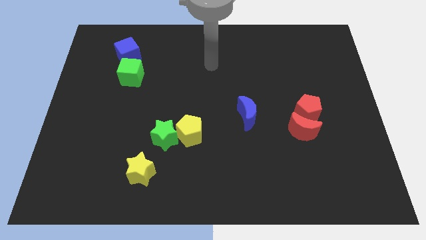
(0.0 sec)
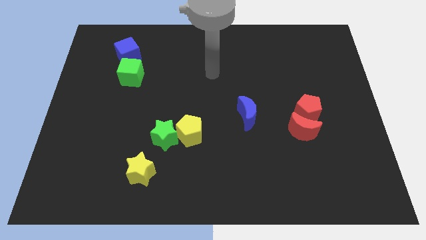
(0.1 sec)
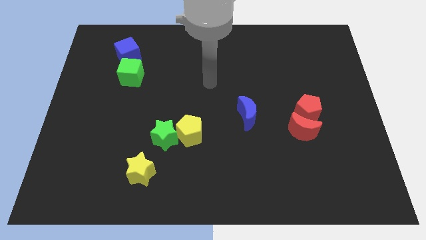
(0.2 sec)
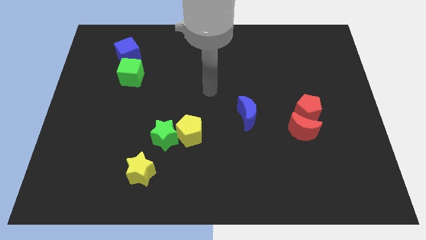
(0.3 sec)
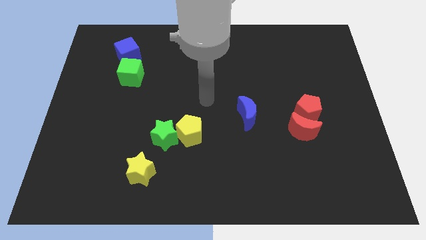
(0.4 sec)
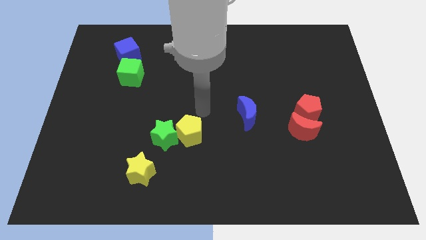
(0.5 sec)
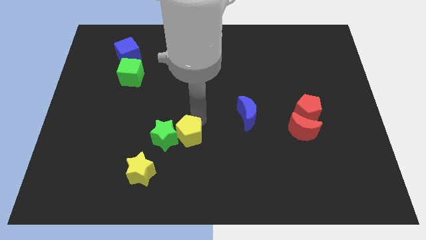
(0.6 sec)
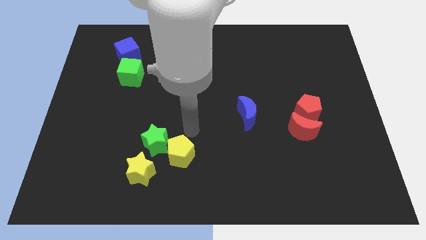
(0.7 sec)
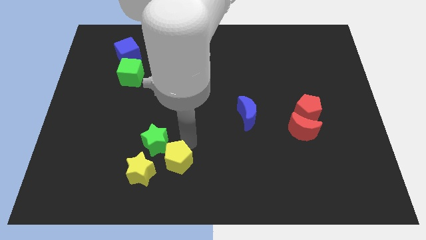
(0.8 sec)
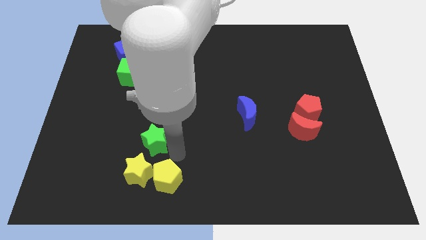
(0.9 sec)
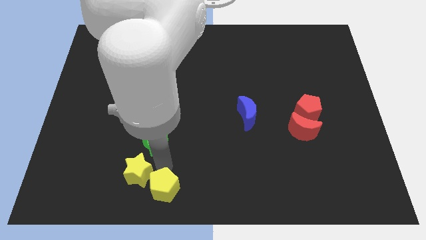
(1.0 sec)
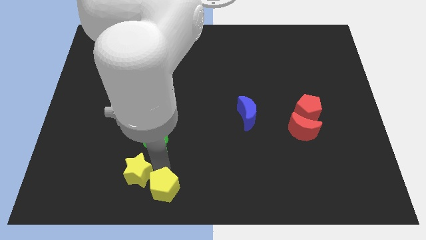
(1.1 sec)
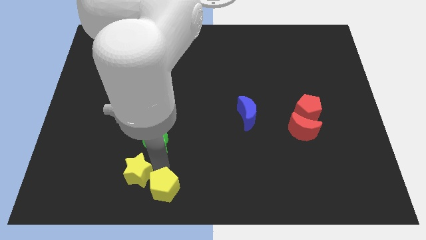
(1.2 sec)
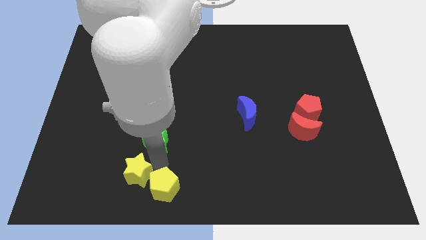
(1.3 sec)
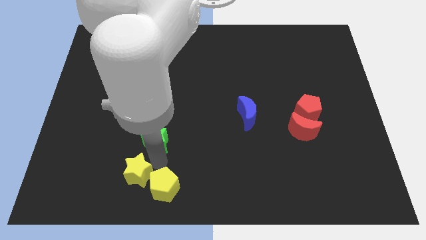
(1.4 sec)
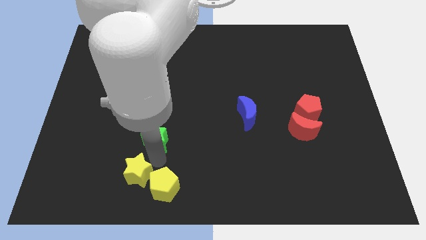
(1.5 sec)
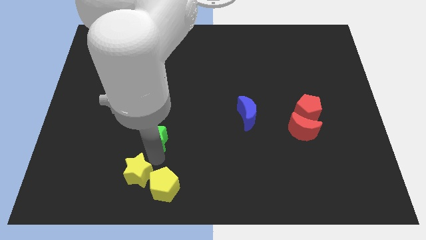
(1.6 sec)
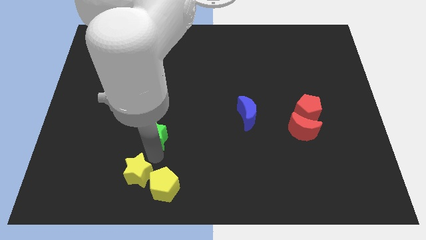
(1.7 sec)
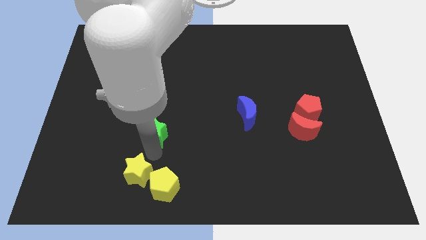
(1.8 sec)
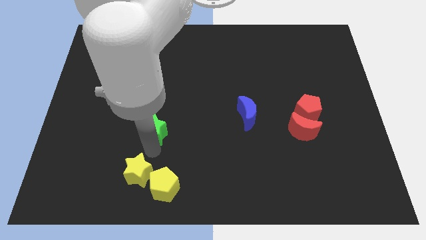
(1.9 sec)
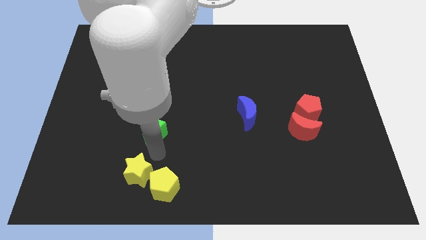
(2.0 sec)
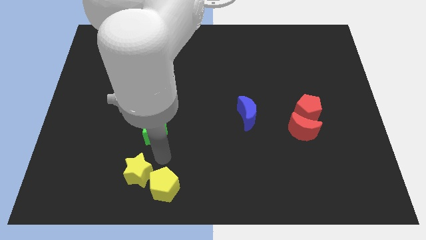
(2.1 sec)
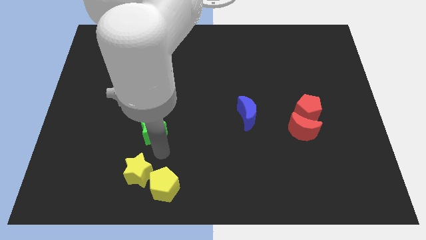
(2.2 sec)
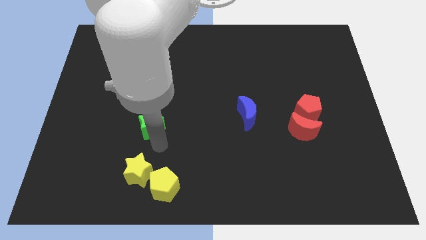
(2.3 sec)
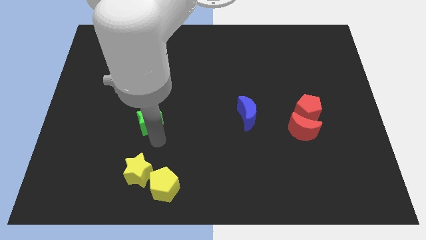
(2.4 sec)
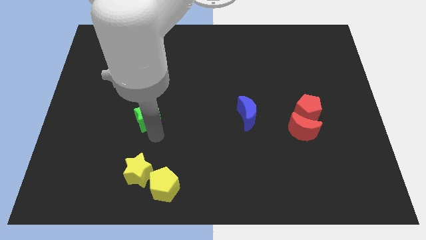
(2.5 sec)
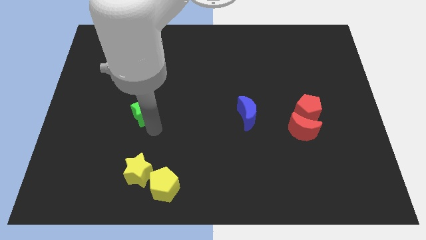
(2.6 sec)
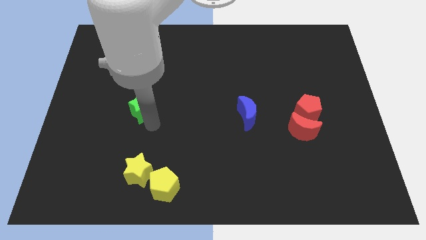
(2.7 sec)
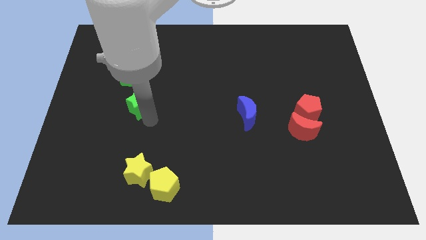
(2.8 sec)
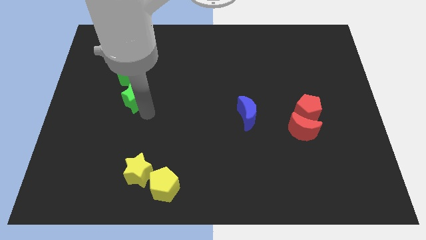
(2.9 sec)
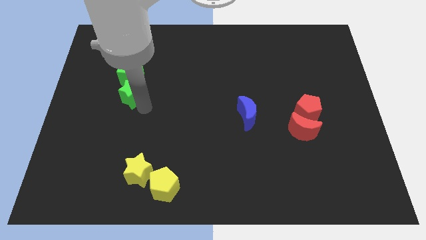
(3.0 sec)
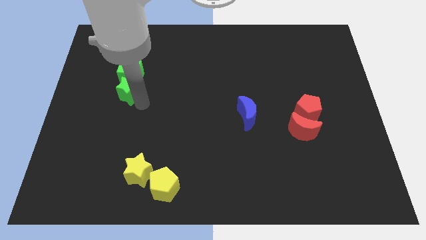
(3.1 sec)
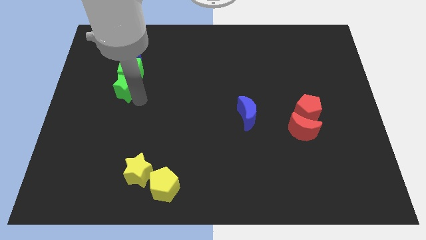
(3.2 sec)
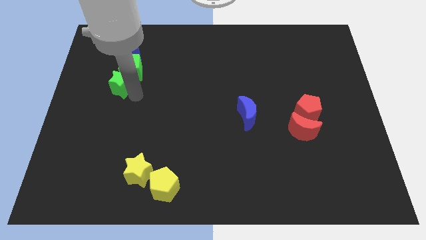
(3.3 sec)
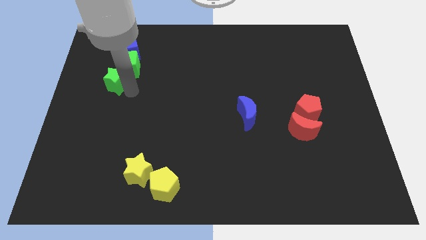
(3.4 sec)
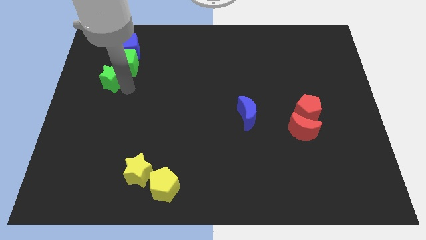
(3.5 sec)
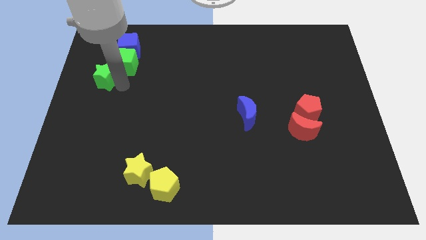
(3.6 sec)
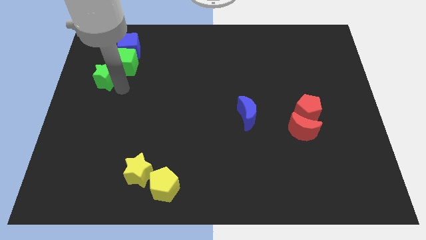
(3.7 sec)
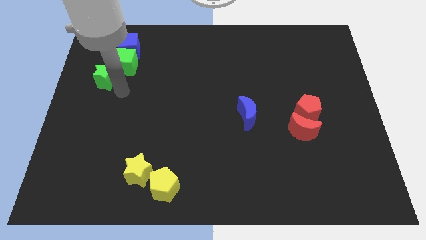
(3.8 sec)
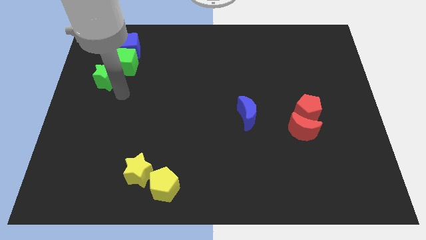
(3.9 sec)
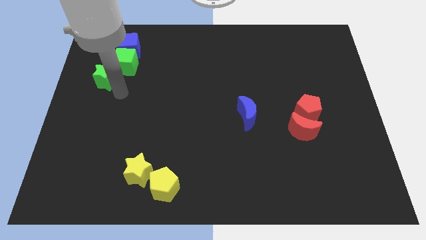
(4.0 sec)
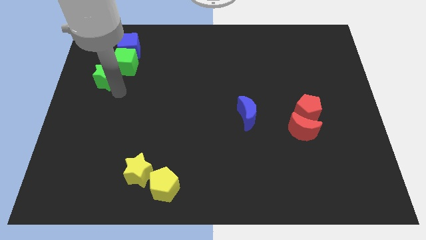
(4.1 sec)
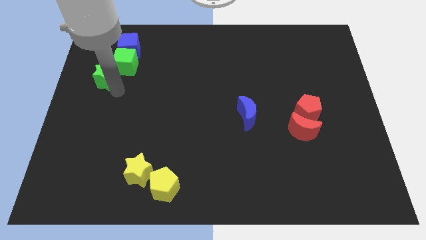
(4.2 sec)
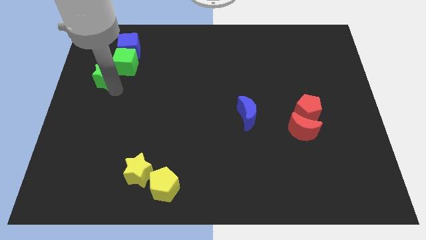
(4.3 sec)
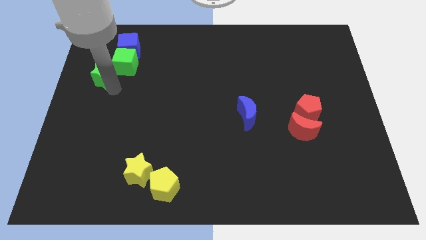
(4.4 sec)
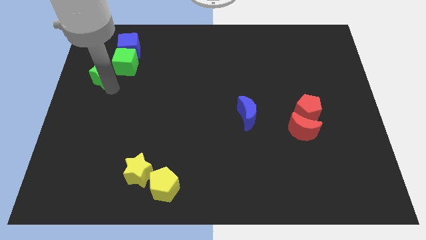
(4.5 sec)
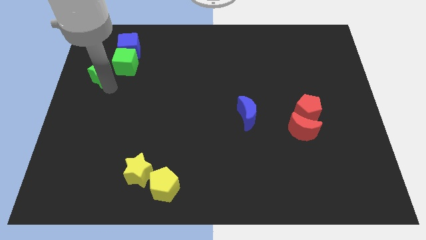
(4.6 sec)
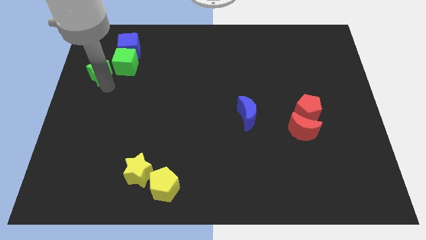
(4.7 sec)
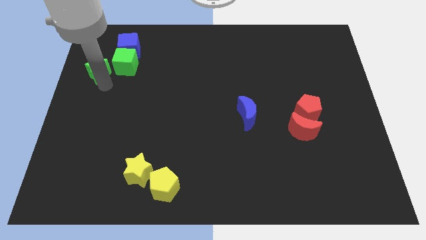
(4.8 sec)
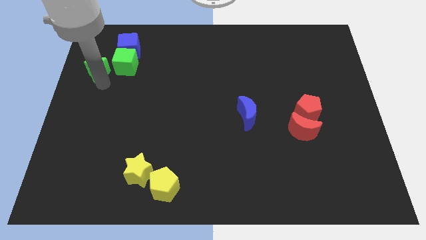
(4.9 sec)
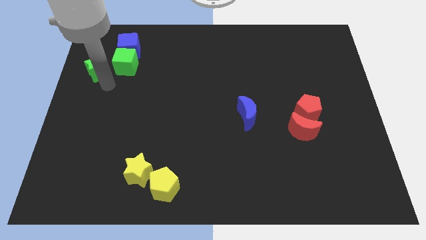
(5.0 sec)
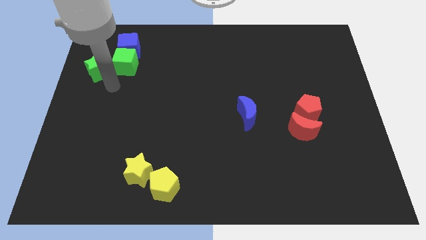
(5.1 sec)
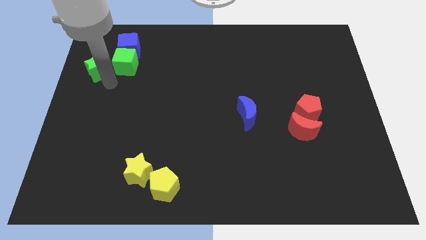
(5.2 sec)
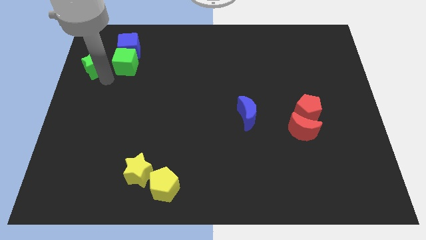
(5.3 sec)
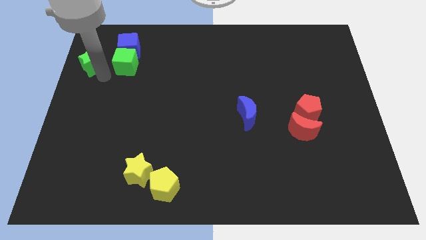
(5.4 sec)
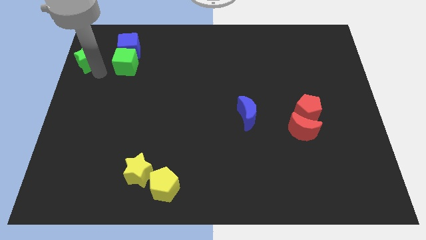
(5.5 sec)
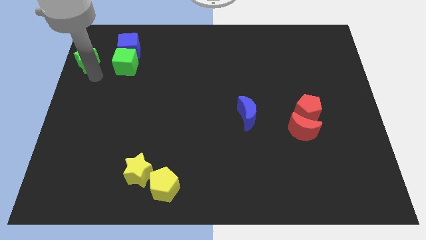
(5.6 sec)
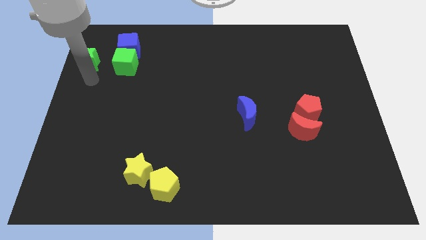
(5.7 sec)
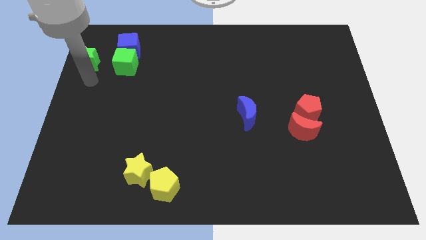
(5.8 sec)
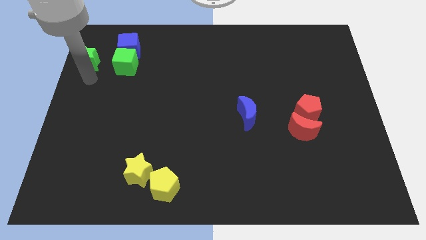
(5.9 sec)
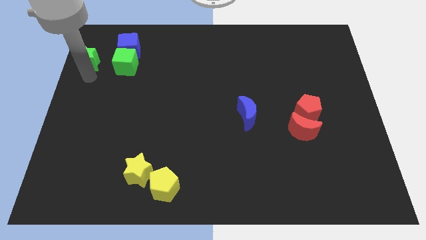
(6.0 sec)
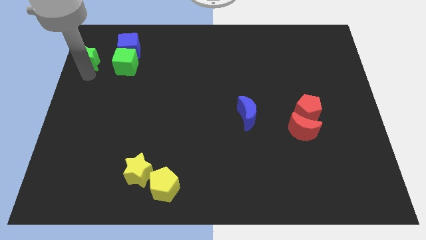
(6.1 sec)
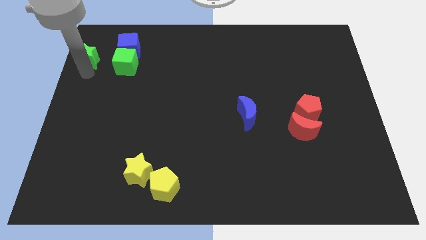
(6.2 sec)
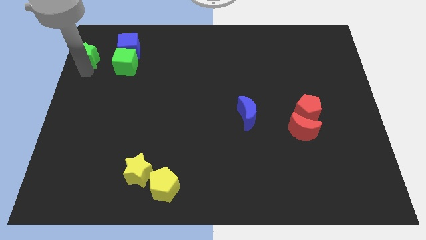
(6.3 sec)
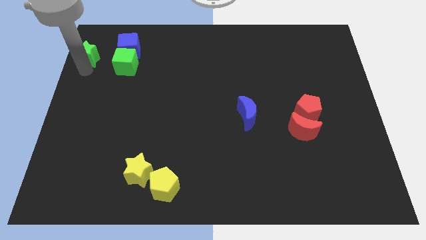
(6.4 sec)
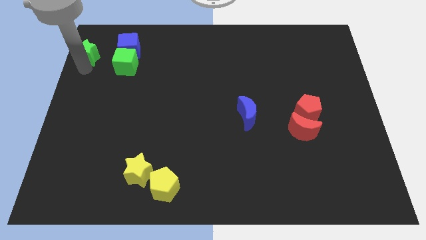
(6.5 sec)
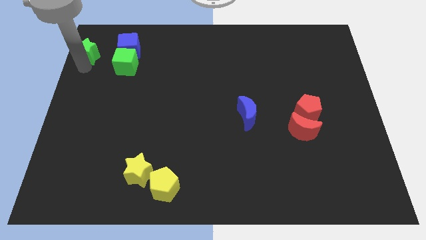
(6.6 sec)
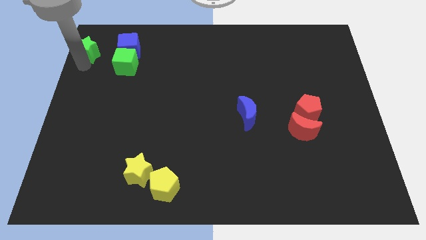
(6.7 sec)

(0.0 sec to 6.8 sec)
put the green star to the top left of the board
